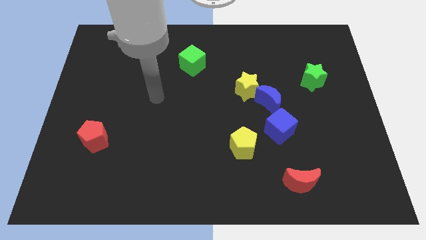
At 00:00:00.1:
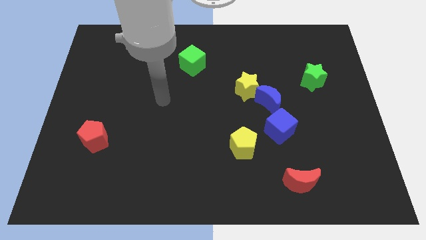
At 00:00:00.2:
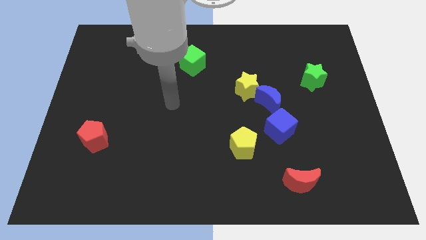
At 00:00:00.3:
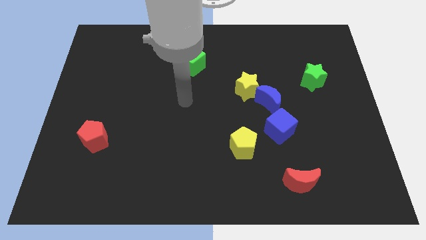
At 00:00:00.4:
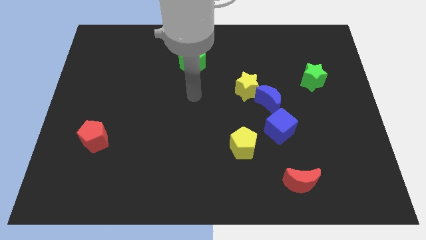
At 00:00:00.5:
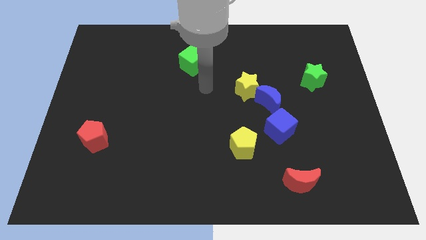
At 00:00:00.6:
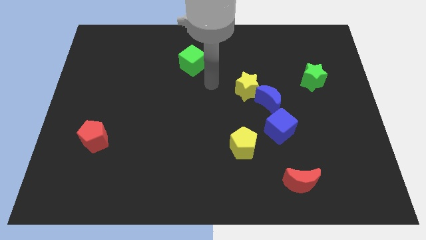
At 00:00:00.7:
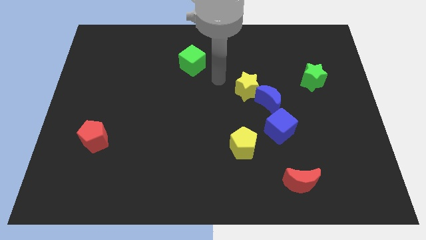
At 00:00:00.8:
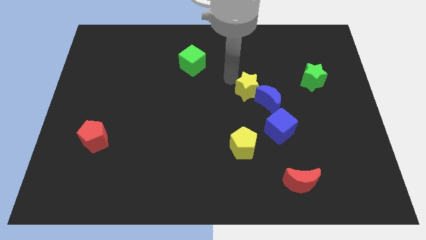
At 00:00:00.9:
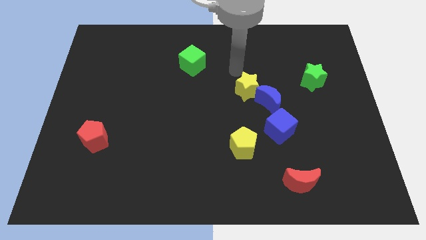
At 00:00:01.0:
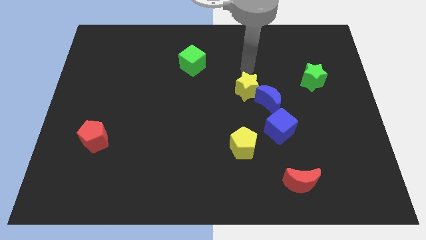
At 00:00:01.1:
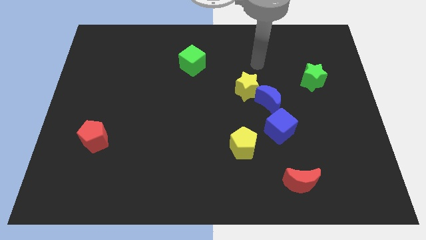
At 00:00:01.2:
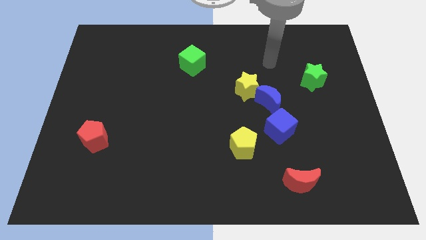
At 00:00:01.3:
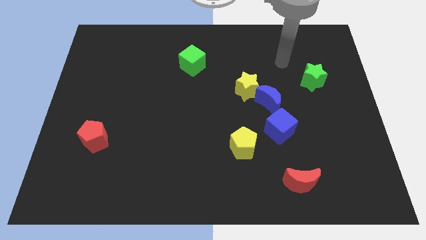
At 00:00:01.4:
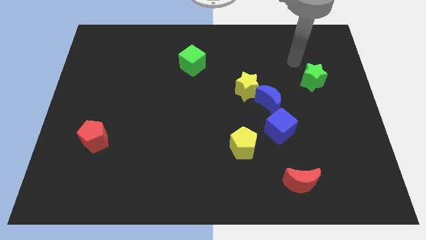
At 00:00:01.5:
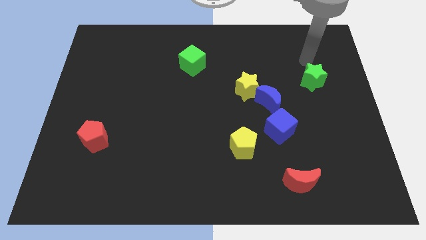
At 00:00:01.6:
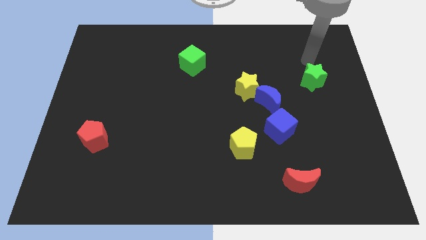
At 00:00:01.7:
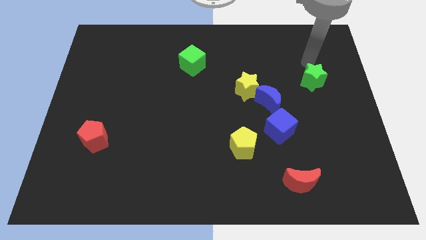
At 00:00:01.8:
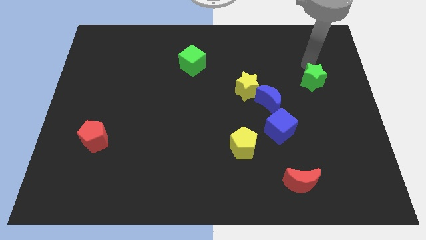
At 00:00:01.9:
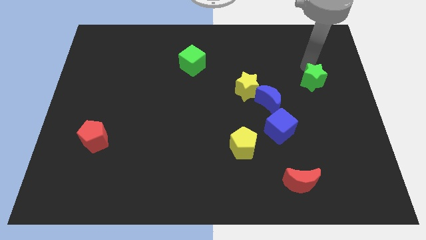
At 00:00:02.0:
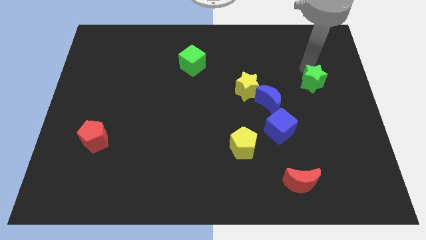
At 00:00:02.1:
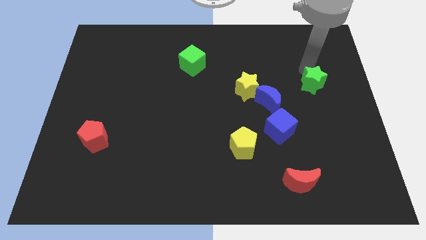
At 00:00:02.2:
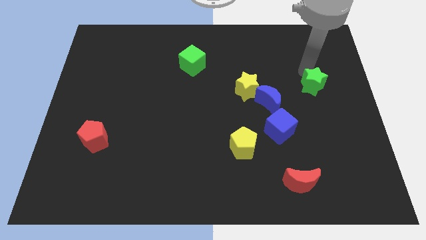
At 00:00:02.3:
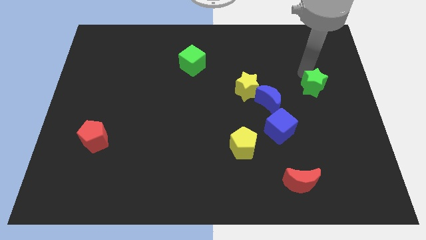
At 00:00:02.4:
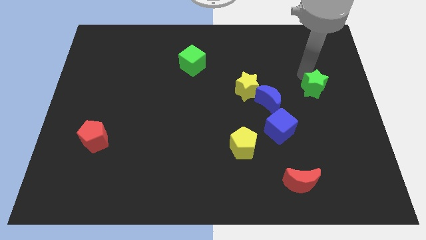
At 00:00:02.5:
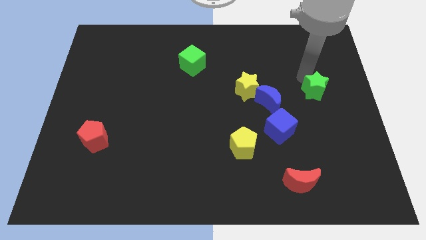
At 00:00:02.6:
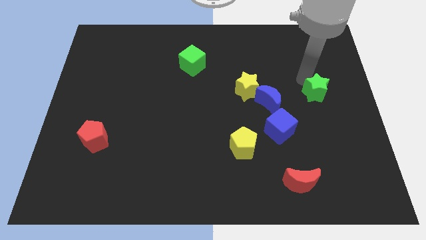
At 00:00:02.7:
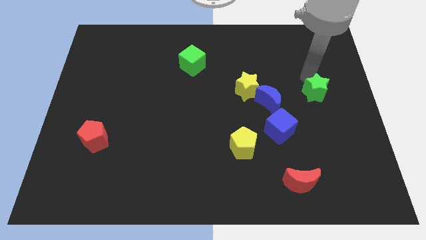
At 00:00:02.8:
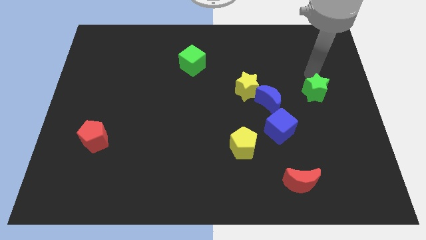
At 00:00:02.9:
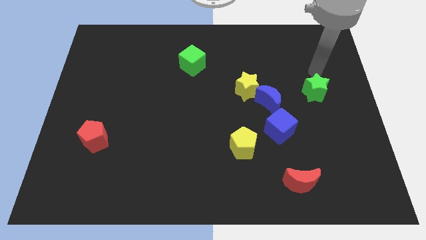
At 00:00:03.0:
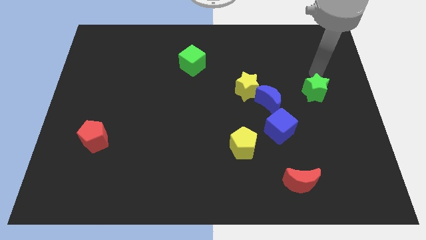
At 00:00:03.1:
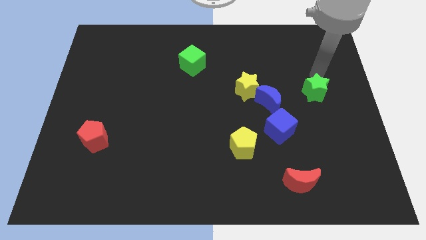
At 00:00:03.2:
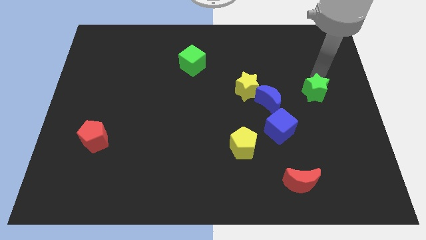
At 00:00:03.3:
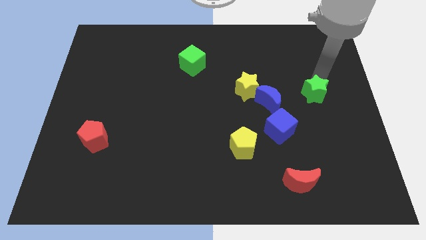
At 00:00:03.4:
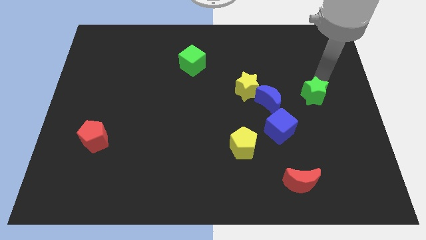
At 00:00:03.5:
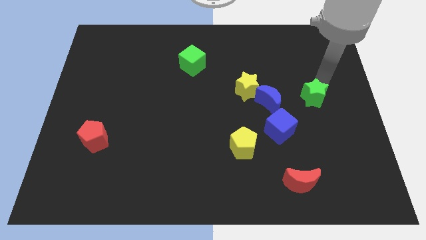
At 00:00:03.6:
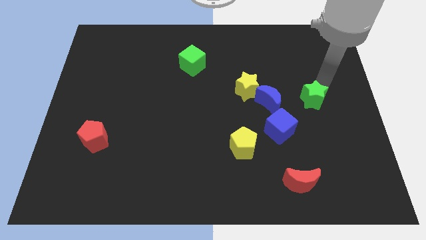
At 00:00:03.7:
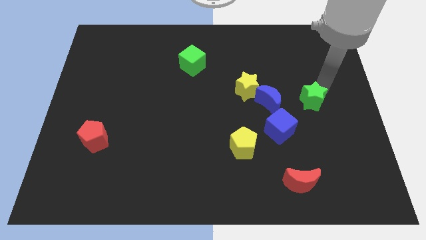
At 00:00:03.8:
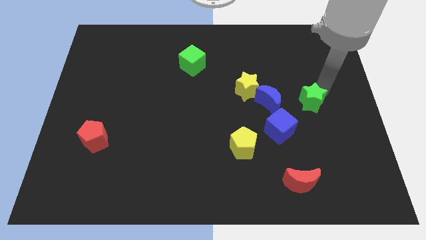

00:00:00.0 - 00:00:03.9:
move the green star down a little

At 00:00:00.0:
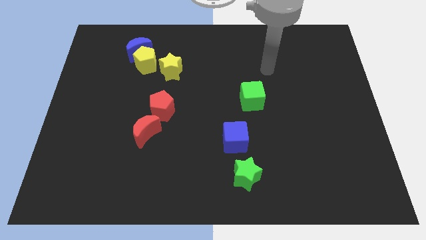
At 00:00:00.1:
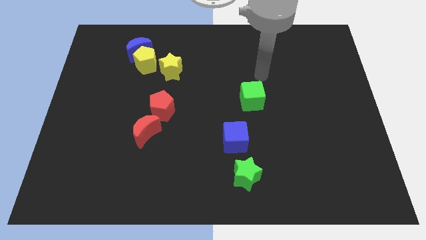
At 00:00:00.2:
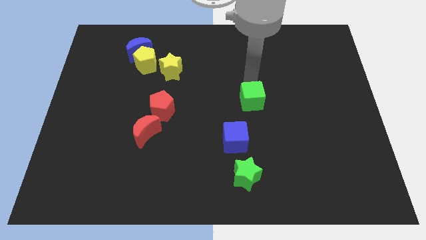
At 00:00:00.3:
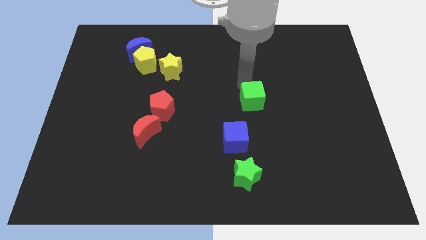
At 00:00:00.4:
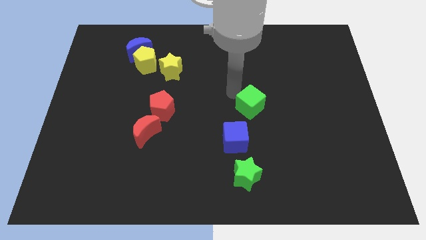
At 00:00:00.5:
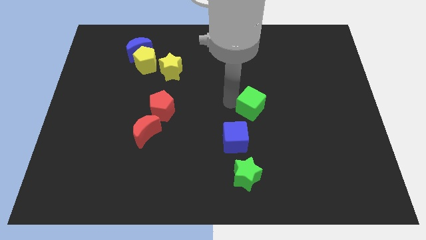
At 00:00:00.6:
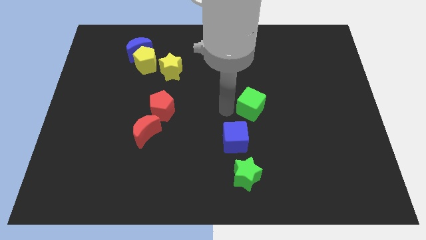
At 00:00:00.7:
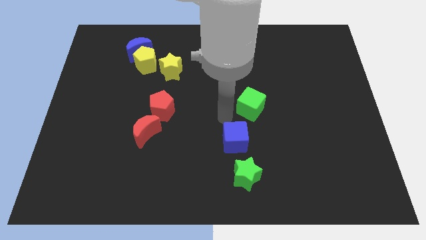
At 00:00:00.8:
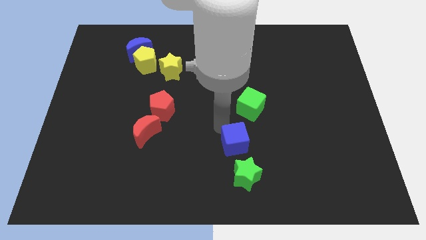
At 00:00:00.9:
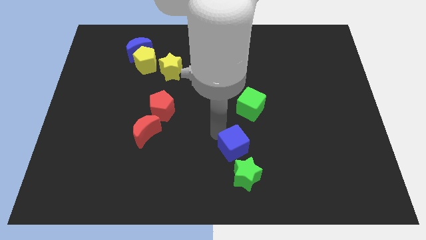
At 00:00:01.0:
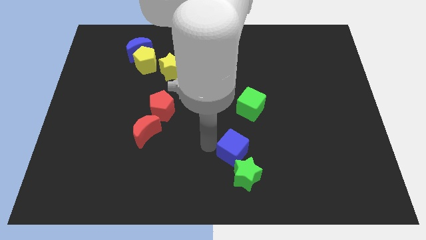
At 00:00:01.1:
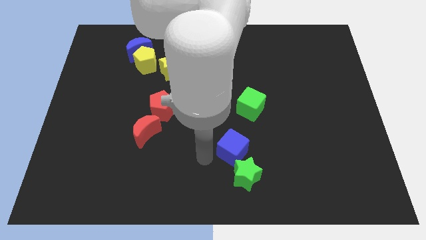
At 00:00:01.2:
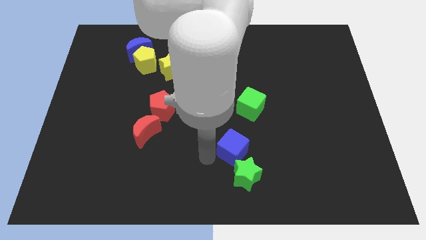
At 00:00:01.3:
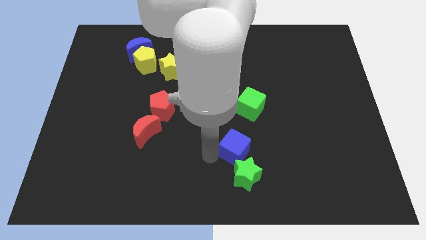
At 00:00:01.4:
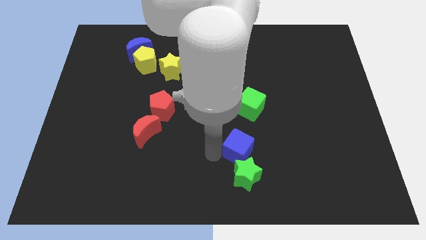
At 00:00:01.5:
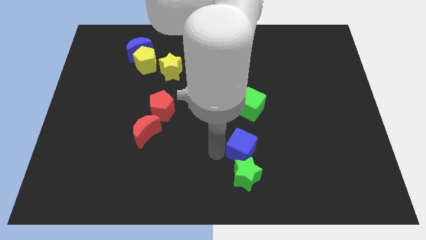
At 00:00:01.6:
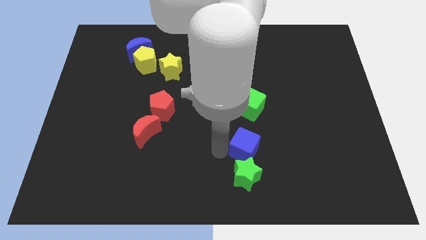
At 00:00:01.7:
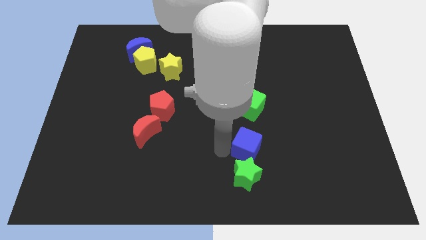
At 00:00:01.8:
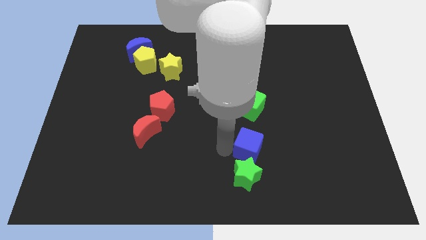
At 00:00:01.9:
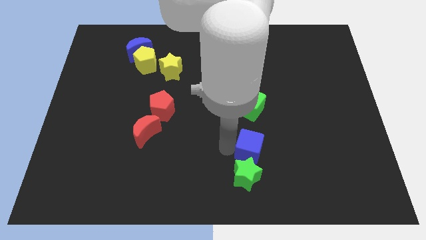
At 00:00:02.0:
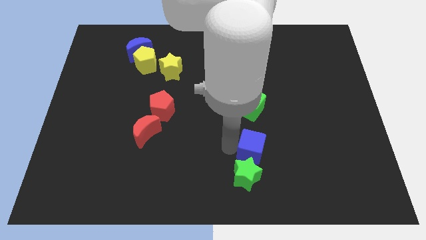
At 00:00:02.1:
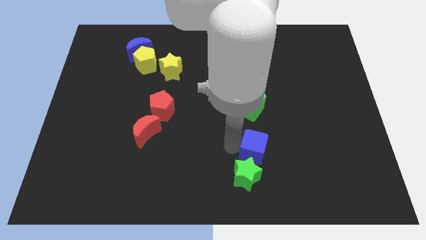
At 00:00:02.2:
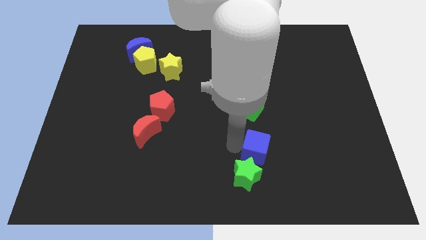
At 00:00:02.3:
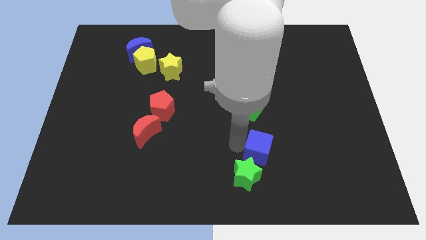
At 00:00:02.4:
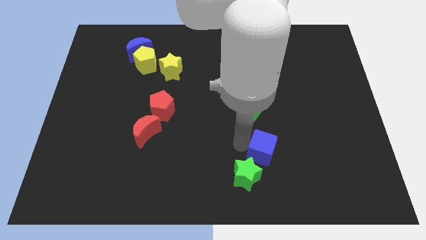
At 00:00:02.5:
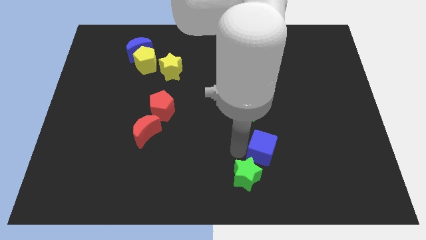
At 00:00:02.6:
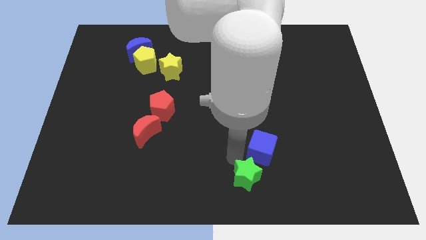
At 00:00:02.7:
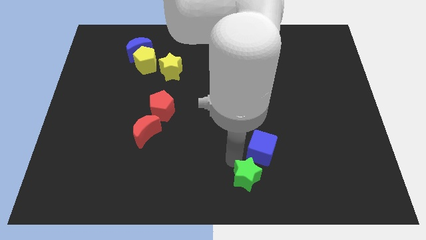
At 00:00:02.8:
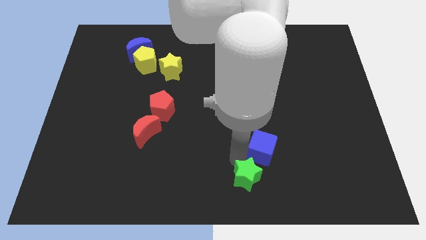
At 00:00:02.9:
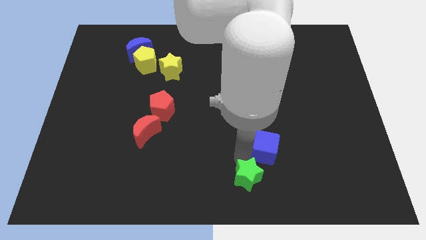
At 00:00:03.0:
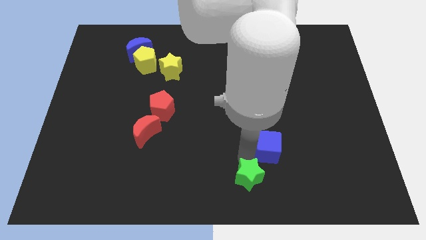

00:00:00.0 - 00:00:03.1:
slightly move the blue cube right

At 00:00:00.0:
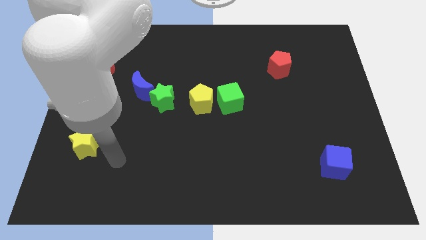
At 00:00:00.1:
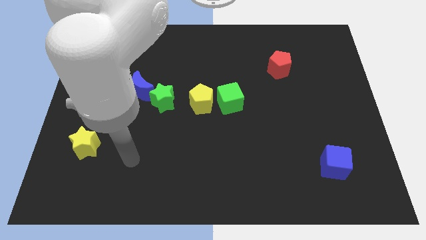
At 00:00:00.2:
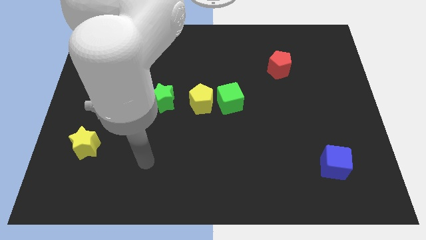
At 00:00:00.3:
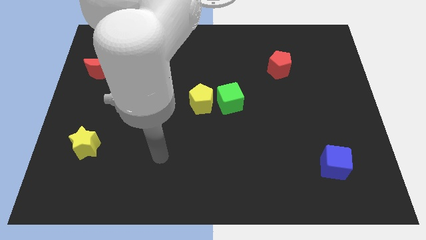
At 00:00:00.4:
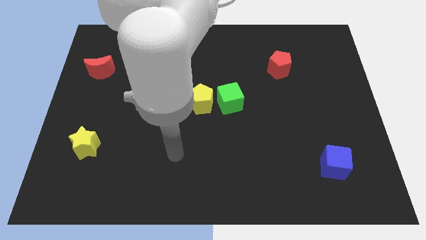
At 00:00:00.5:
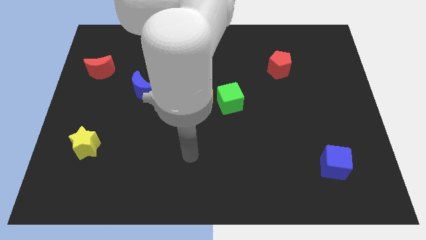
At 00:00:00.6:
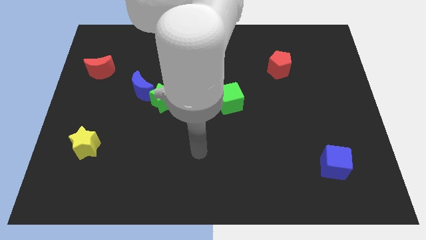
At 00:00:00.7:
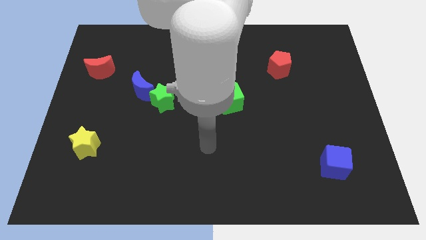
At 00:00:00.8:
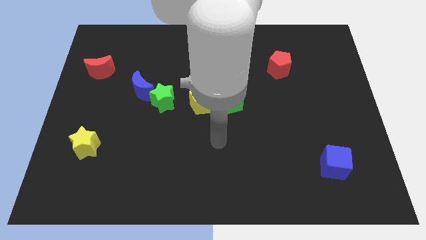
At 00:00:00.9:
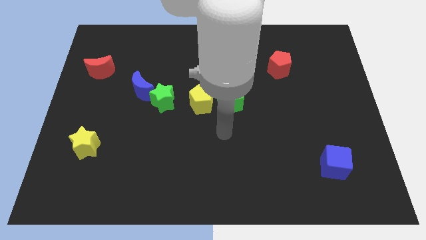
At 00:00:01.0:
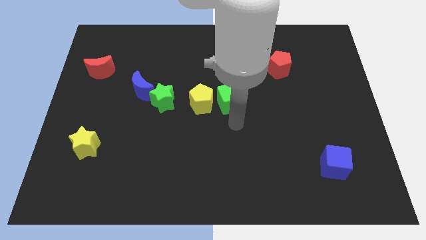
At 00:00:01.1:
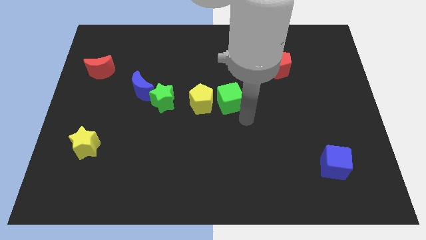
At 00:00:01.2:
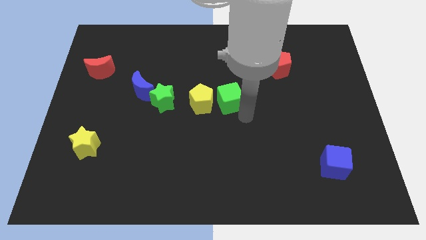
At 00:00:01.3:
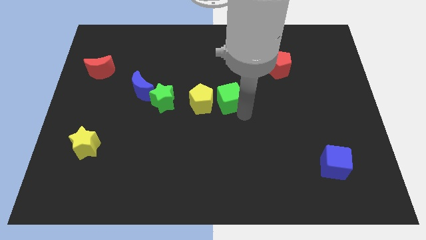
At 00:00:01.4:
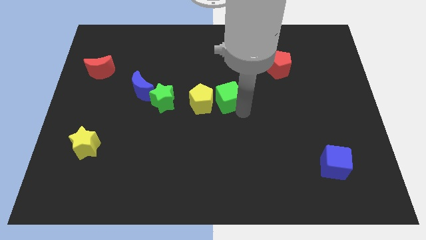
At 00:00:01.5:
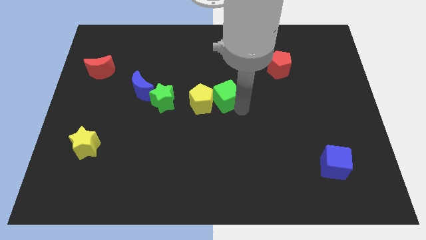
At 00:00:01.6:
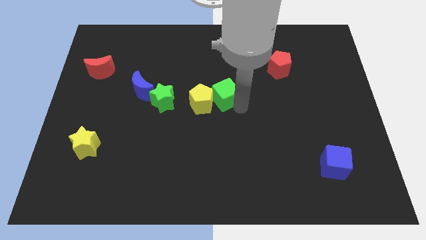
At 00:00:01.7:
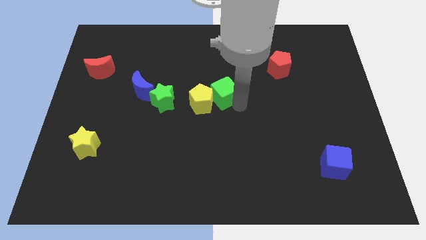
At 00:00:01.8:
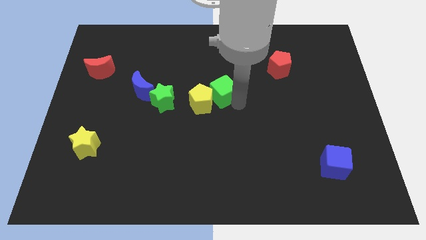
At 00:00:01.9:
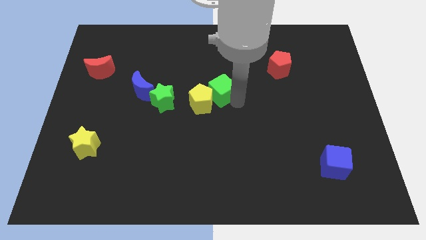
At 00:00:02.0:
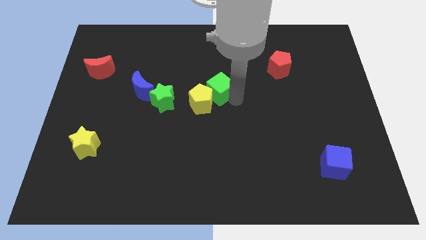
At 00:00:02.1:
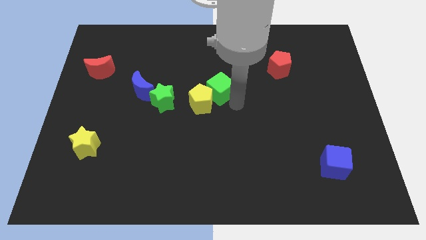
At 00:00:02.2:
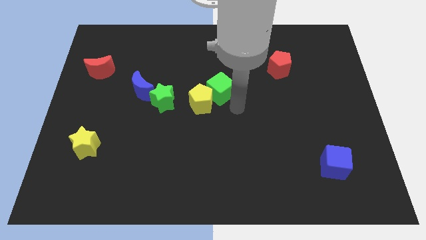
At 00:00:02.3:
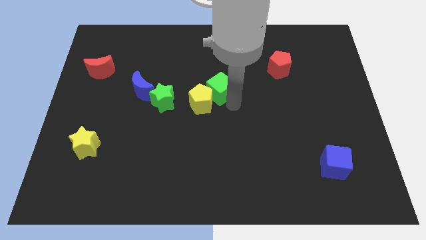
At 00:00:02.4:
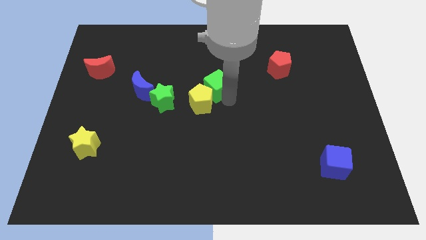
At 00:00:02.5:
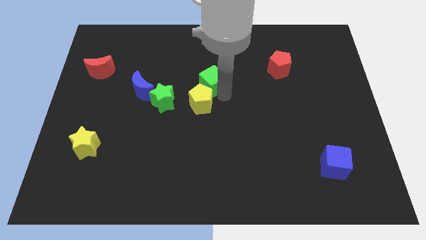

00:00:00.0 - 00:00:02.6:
slide the green cube somewhat upwards and then left
